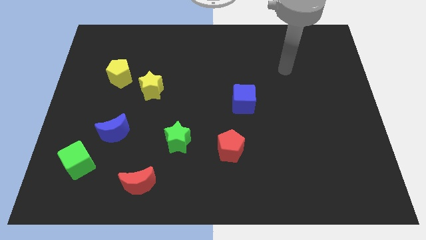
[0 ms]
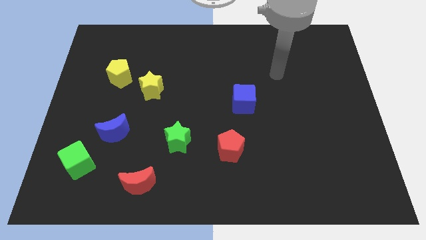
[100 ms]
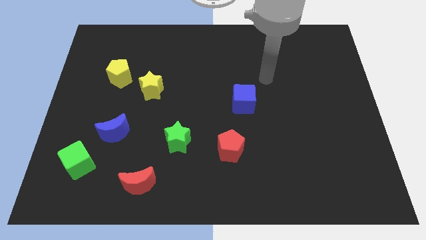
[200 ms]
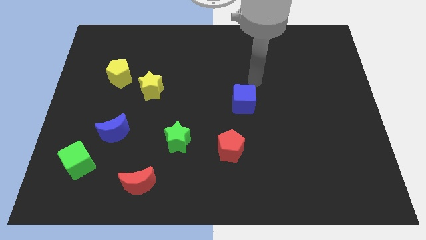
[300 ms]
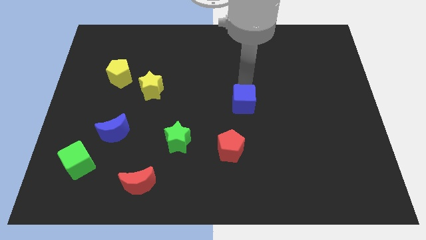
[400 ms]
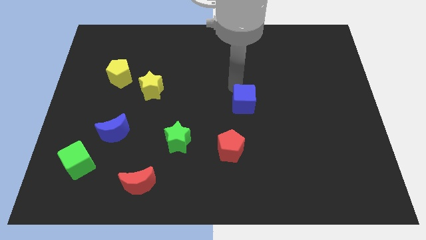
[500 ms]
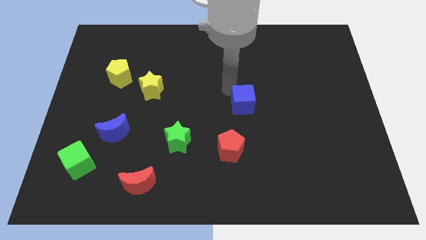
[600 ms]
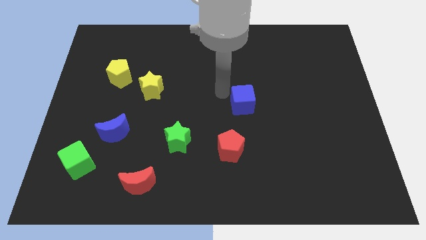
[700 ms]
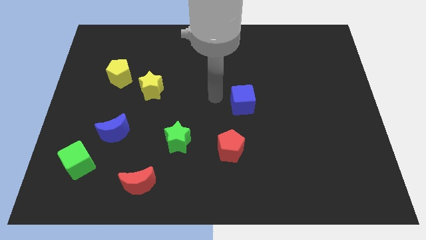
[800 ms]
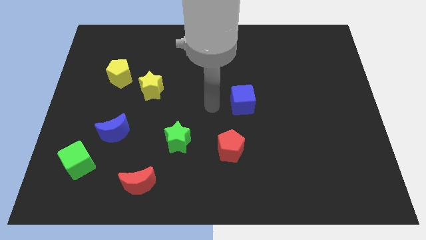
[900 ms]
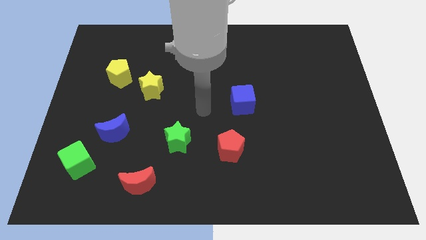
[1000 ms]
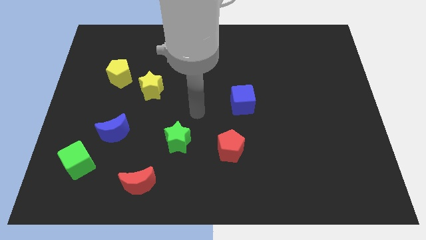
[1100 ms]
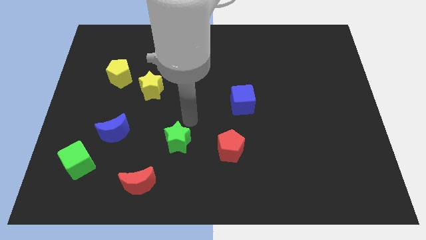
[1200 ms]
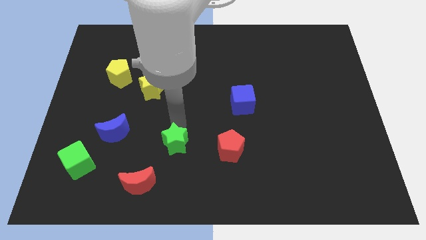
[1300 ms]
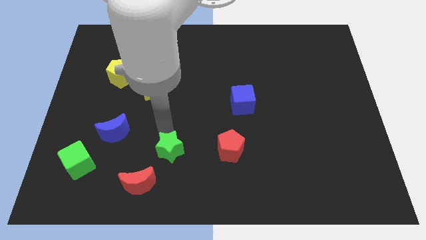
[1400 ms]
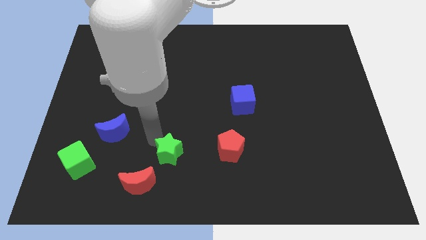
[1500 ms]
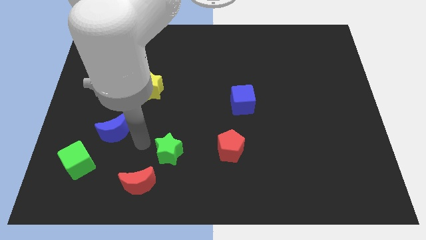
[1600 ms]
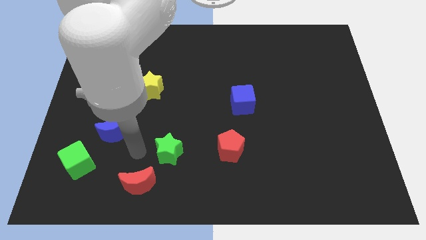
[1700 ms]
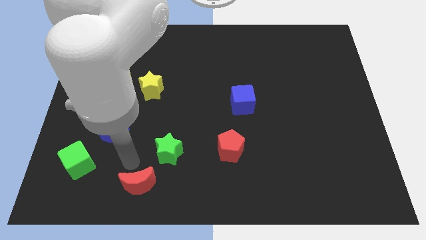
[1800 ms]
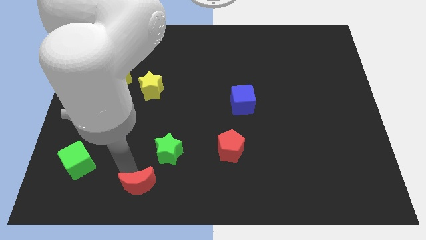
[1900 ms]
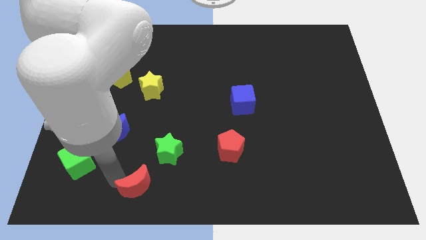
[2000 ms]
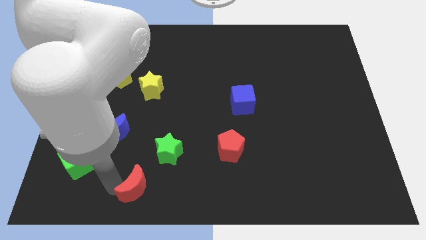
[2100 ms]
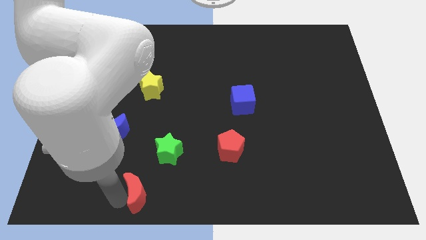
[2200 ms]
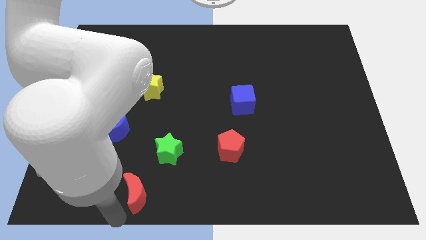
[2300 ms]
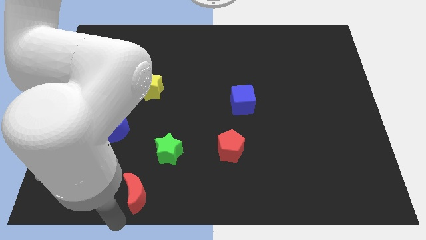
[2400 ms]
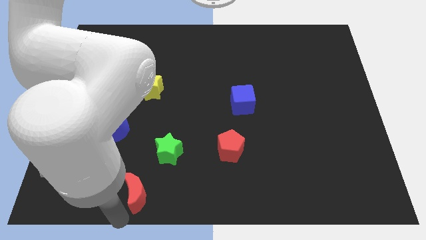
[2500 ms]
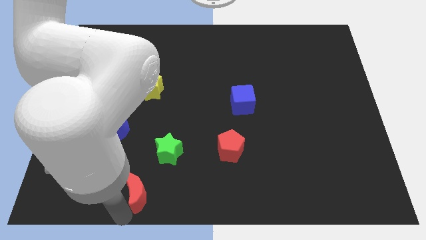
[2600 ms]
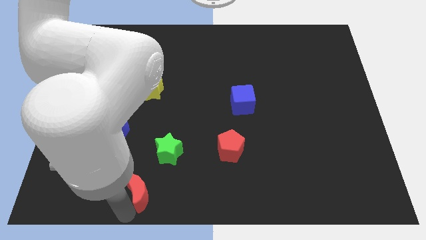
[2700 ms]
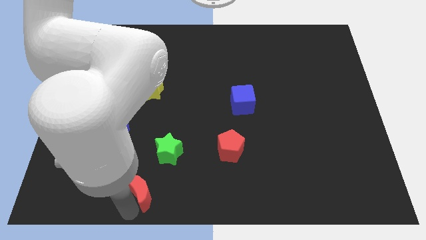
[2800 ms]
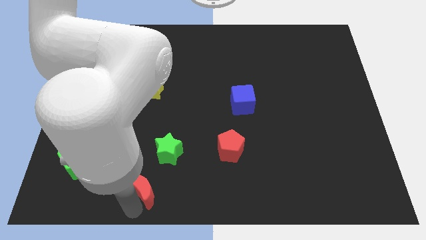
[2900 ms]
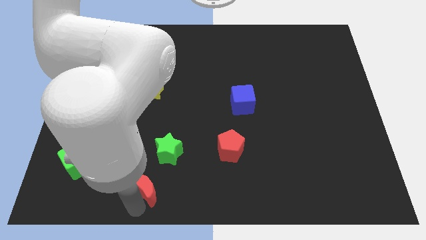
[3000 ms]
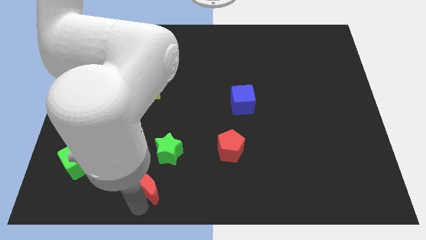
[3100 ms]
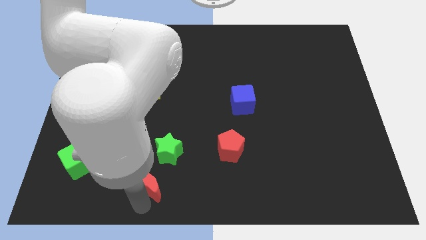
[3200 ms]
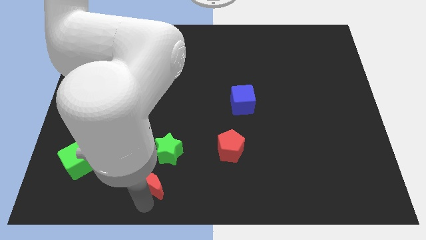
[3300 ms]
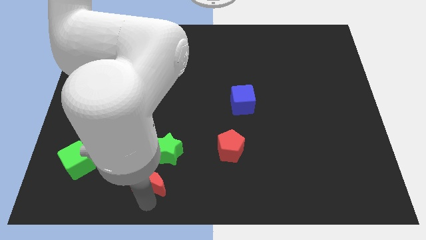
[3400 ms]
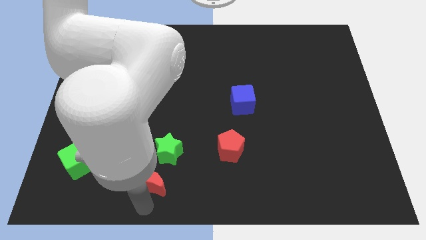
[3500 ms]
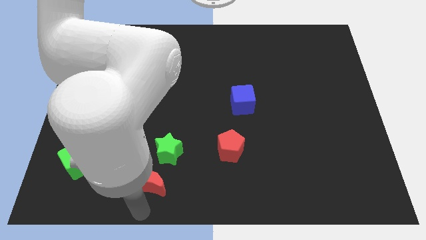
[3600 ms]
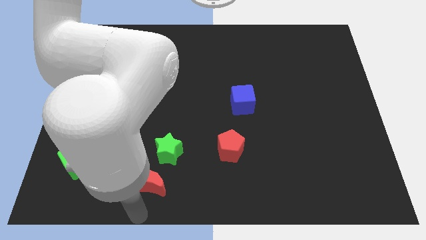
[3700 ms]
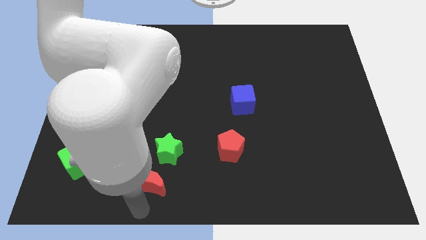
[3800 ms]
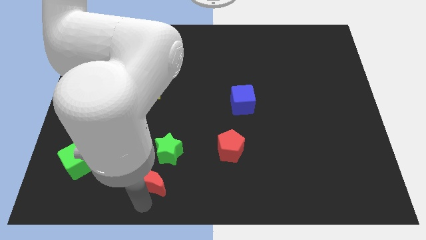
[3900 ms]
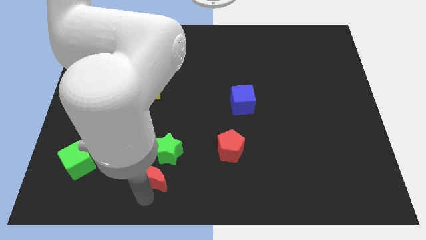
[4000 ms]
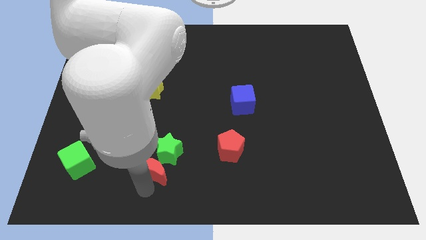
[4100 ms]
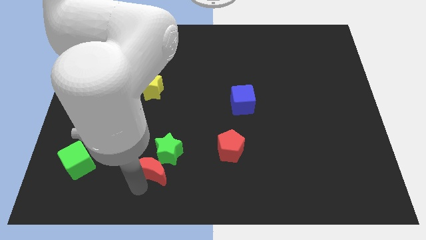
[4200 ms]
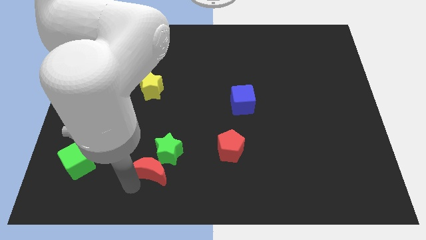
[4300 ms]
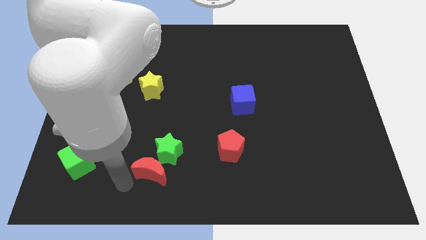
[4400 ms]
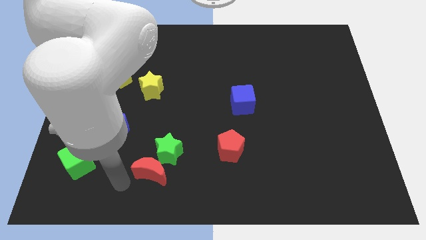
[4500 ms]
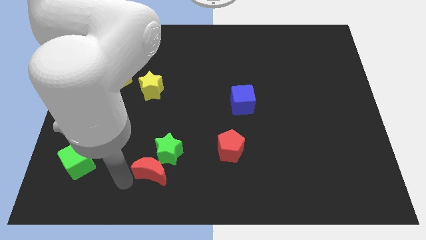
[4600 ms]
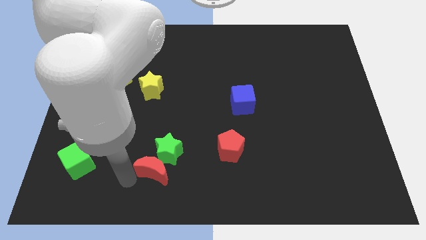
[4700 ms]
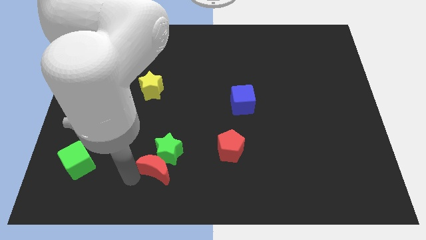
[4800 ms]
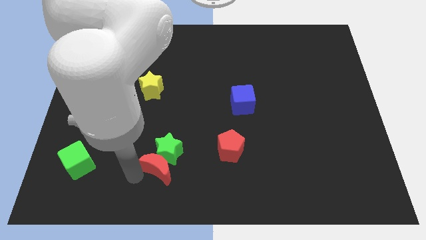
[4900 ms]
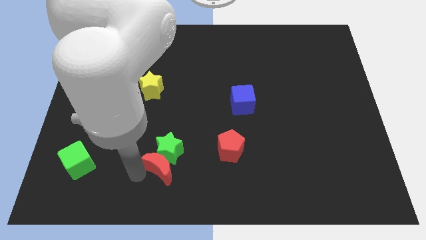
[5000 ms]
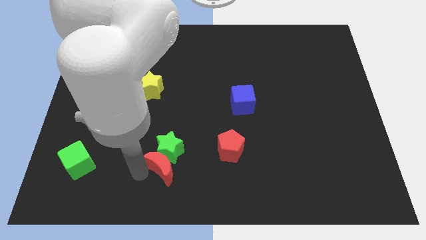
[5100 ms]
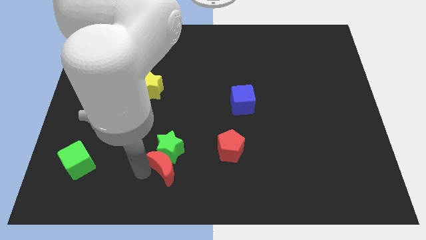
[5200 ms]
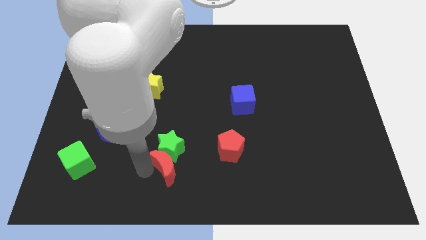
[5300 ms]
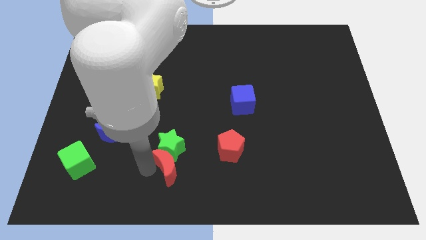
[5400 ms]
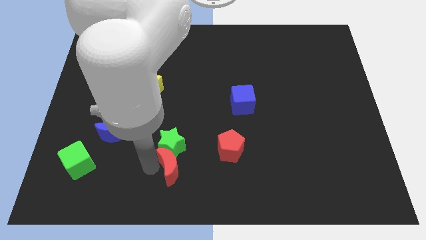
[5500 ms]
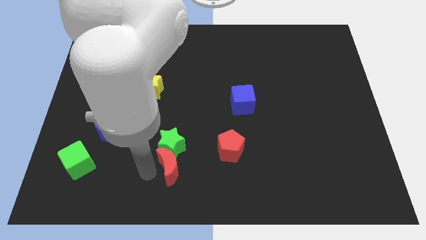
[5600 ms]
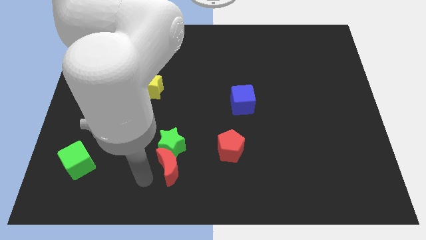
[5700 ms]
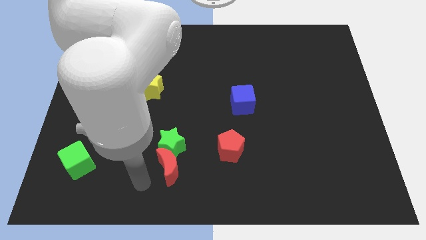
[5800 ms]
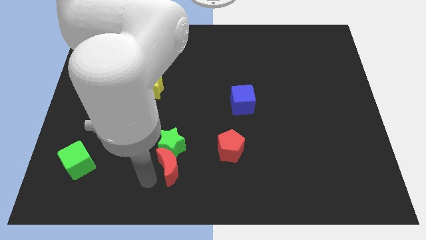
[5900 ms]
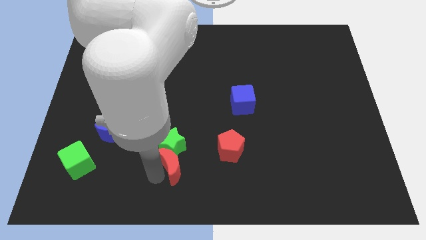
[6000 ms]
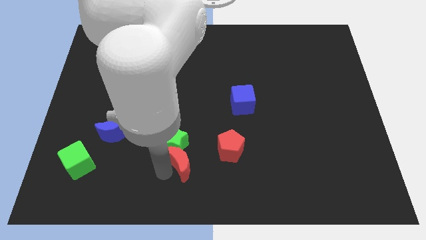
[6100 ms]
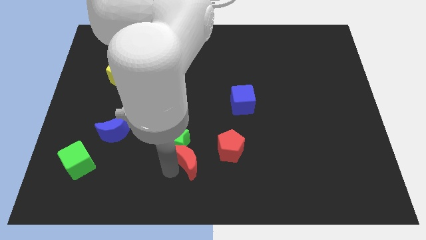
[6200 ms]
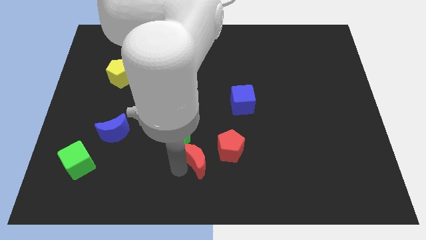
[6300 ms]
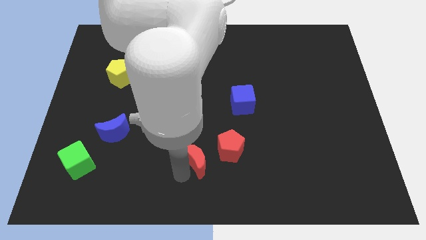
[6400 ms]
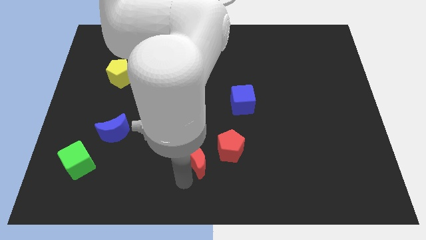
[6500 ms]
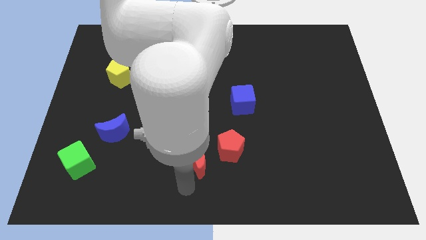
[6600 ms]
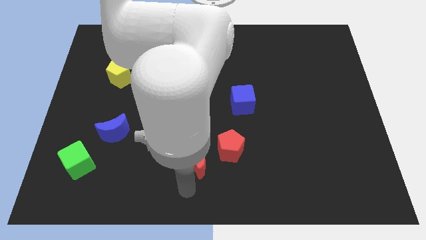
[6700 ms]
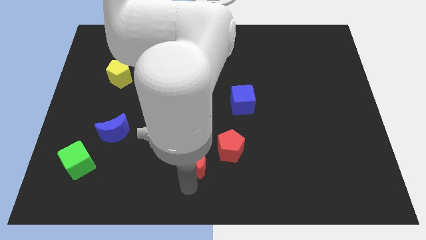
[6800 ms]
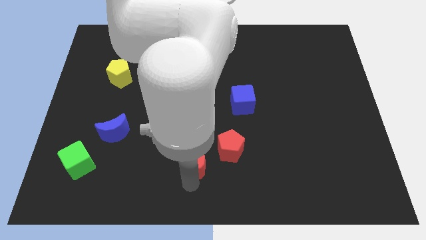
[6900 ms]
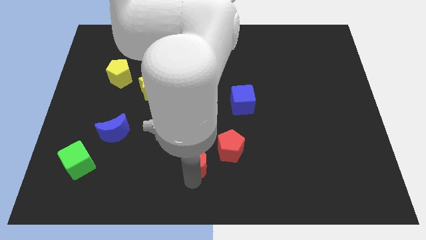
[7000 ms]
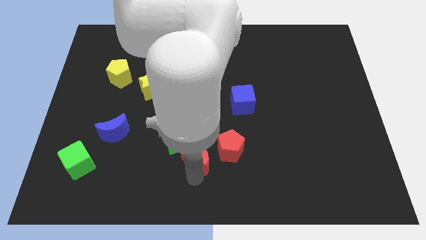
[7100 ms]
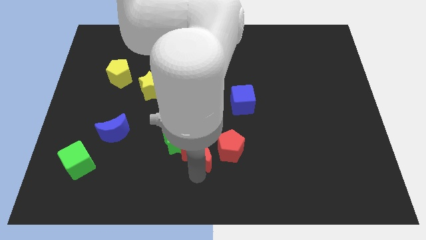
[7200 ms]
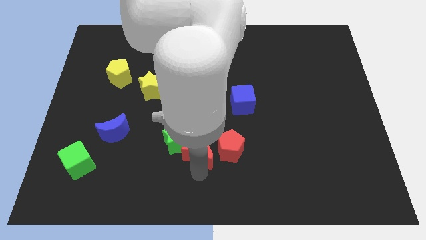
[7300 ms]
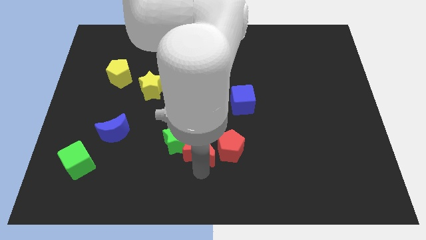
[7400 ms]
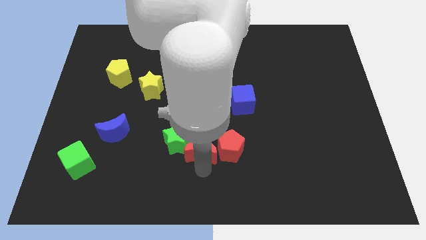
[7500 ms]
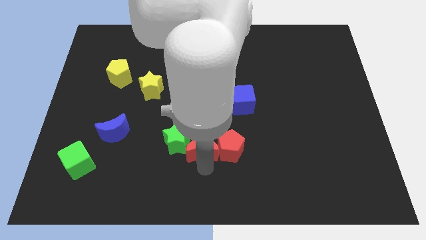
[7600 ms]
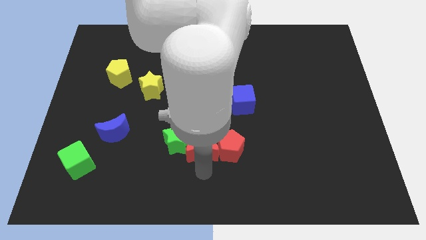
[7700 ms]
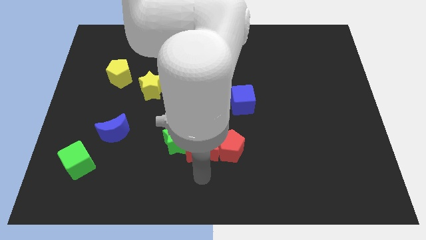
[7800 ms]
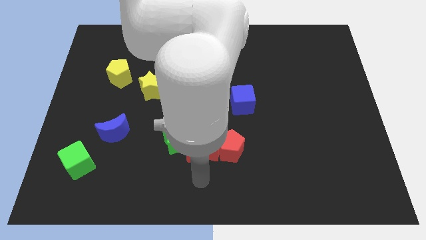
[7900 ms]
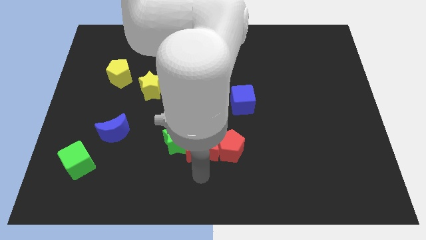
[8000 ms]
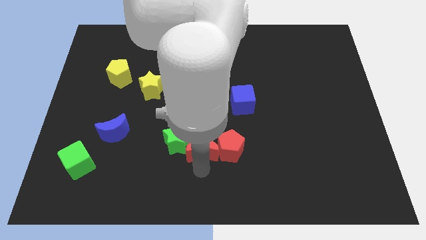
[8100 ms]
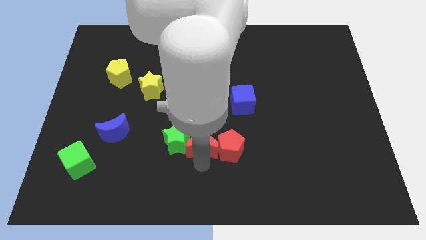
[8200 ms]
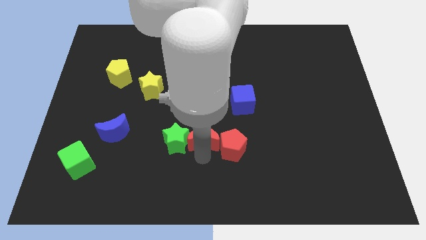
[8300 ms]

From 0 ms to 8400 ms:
move the red moon to the top right of the green star
